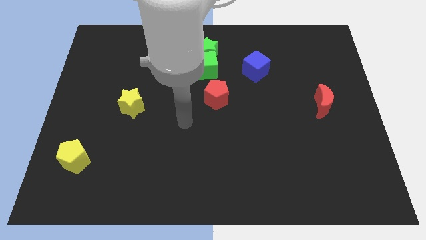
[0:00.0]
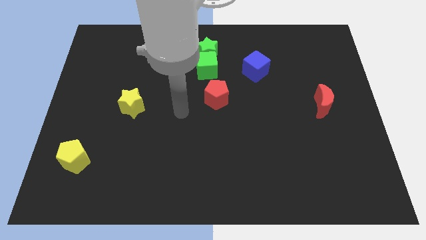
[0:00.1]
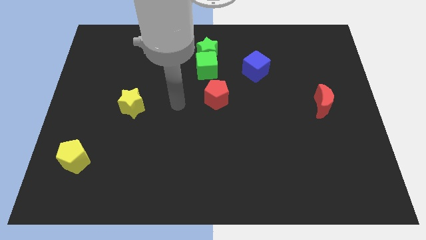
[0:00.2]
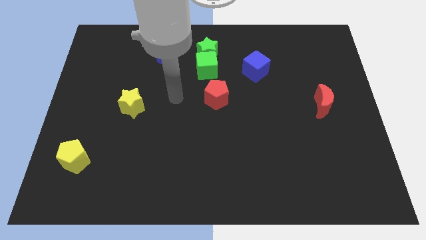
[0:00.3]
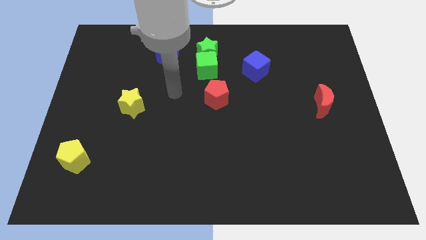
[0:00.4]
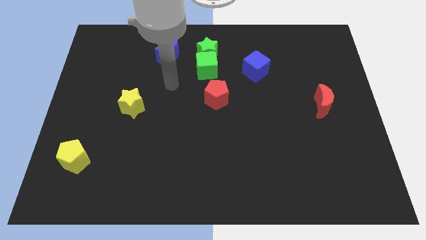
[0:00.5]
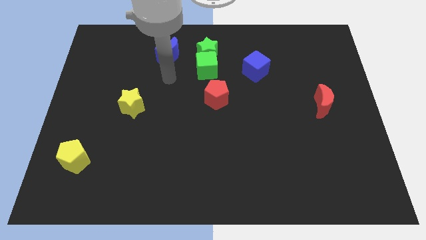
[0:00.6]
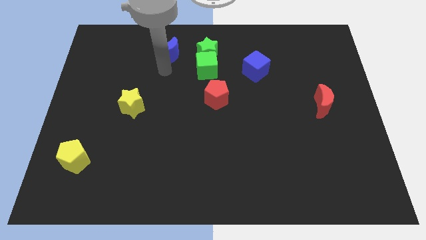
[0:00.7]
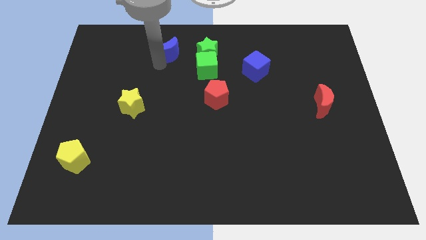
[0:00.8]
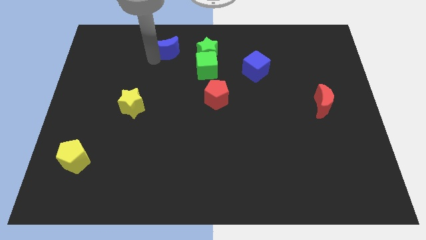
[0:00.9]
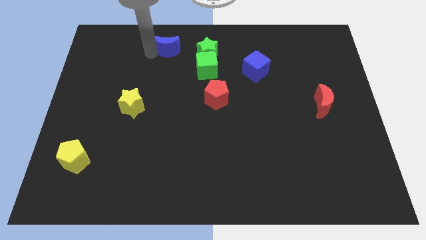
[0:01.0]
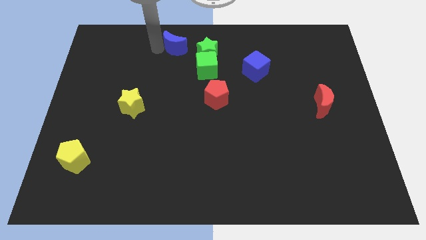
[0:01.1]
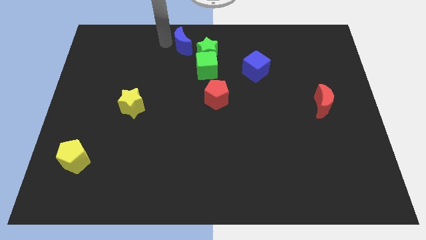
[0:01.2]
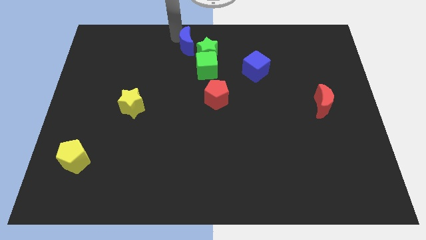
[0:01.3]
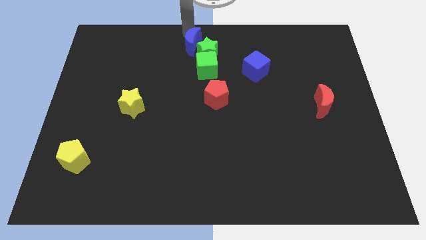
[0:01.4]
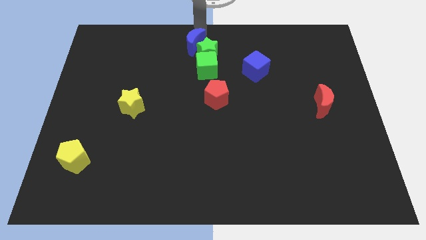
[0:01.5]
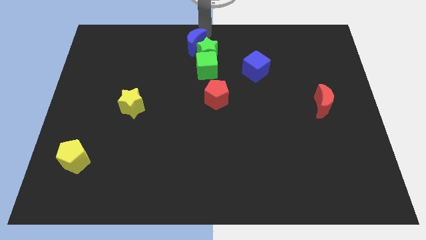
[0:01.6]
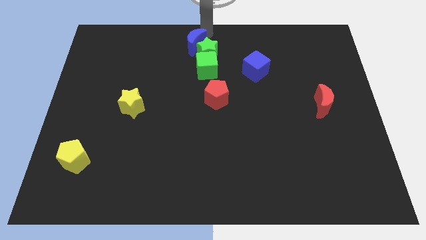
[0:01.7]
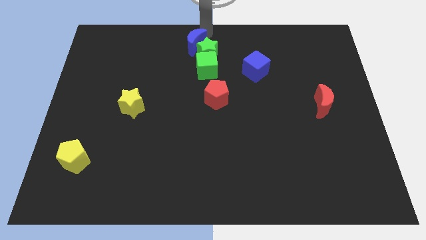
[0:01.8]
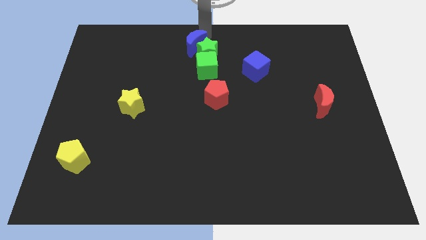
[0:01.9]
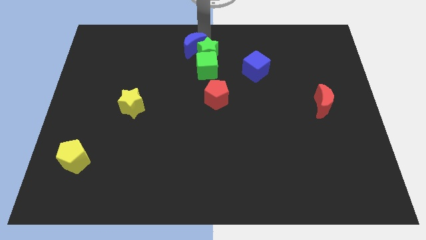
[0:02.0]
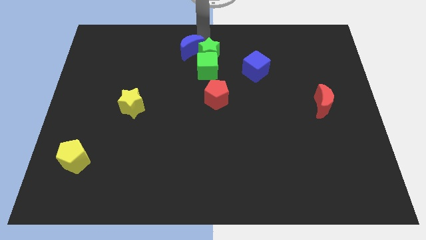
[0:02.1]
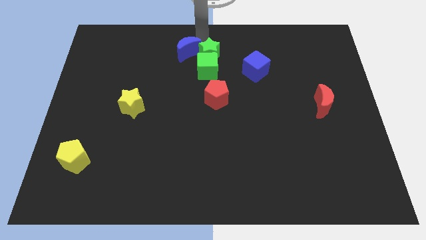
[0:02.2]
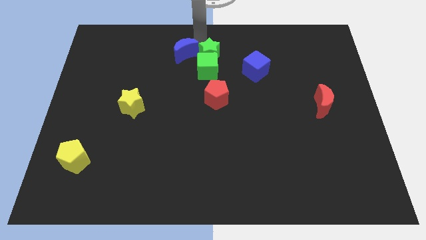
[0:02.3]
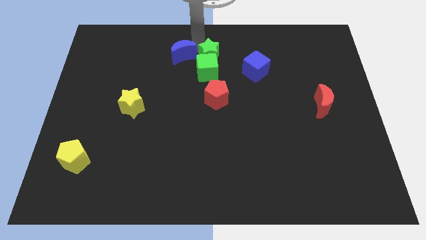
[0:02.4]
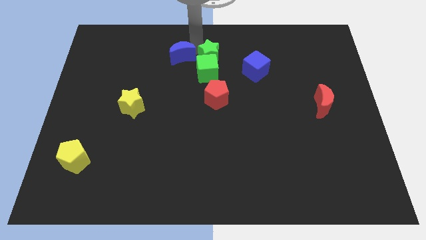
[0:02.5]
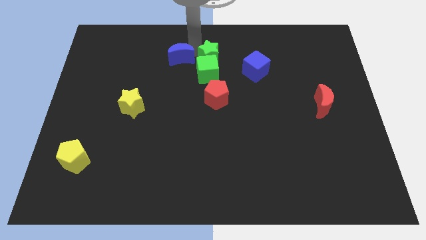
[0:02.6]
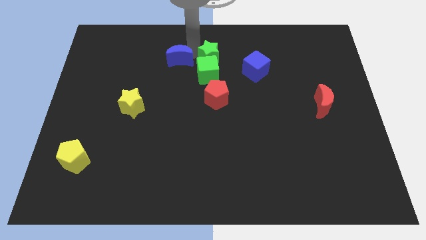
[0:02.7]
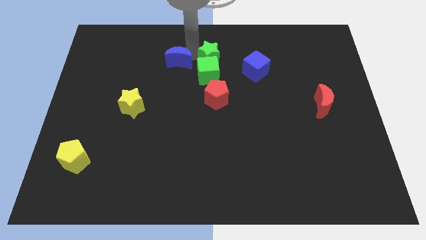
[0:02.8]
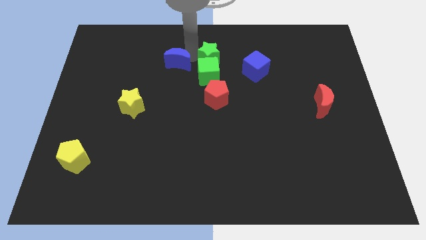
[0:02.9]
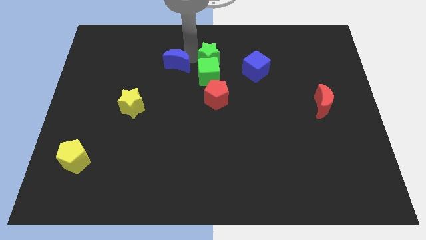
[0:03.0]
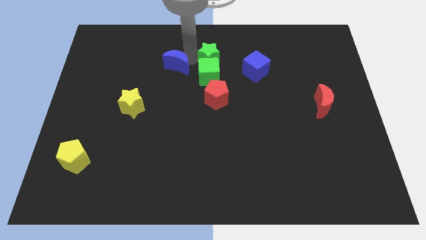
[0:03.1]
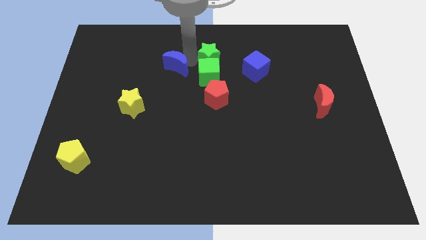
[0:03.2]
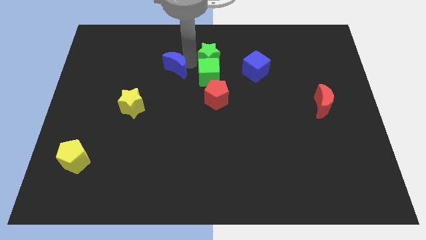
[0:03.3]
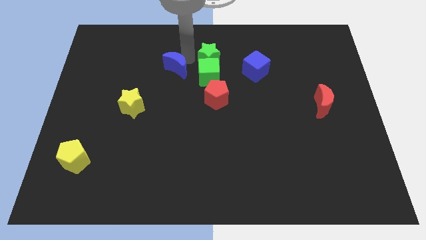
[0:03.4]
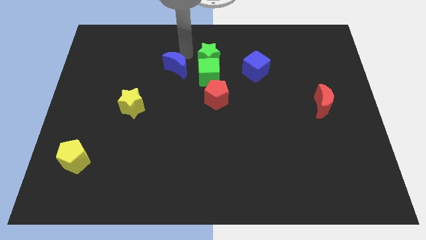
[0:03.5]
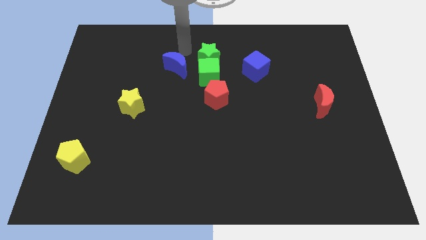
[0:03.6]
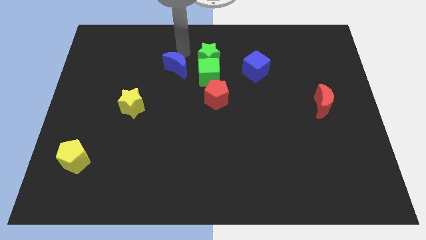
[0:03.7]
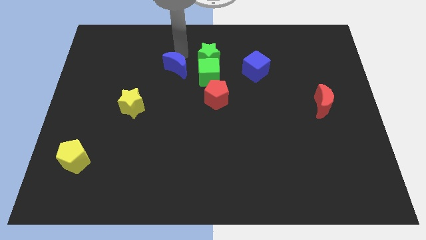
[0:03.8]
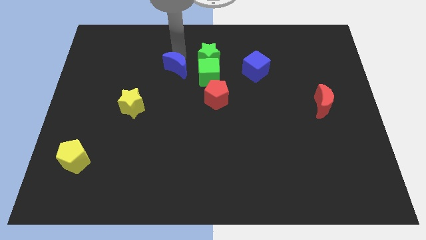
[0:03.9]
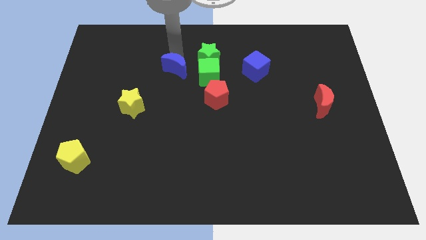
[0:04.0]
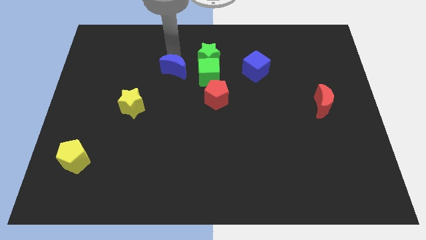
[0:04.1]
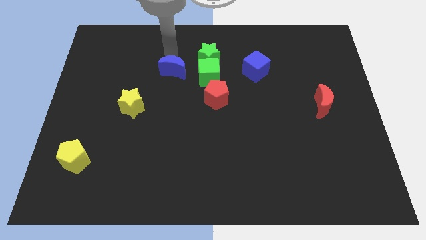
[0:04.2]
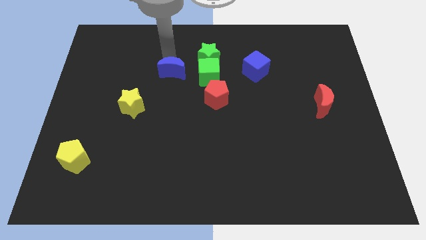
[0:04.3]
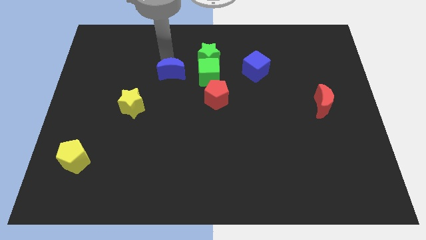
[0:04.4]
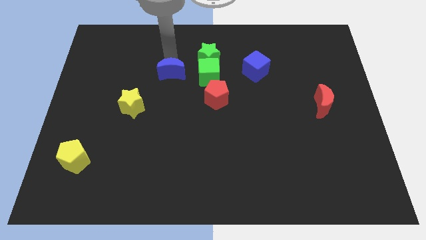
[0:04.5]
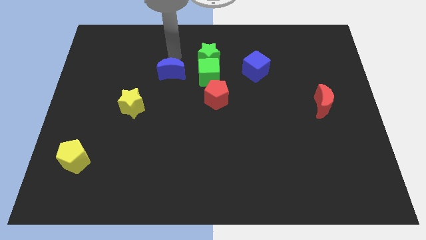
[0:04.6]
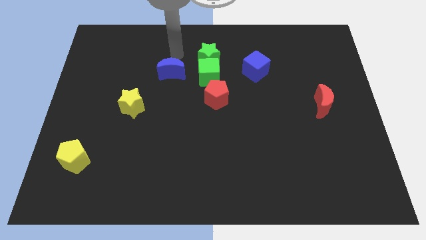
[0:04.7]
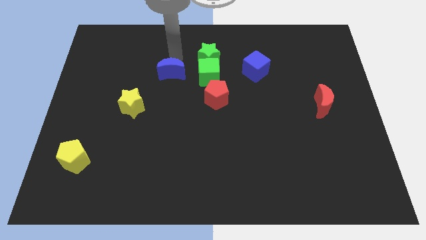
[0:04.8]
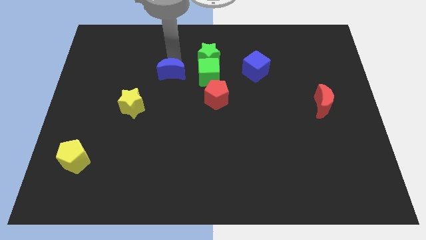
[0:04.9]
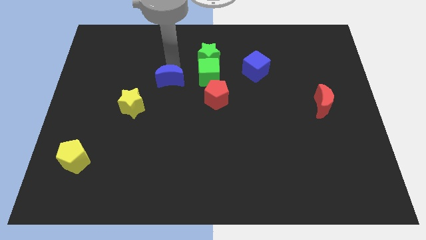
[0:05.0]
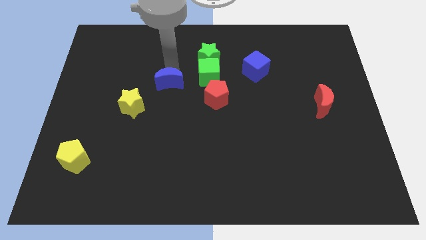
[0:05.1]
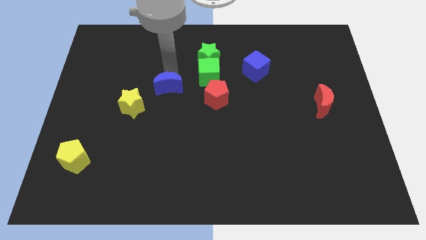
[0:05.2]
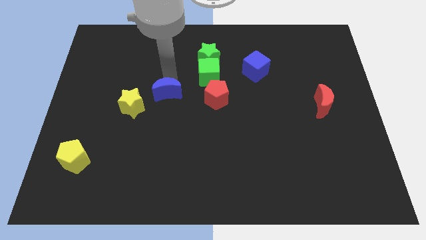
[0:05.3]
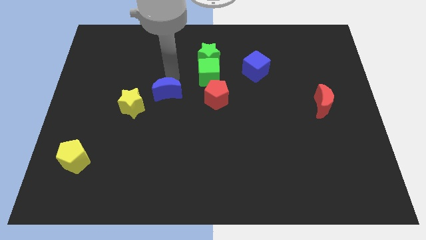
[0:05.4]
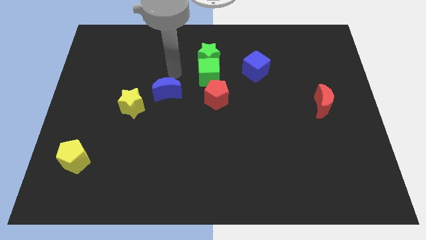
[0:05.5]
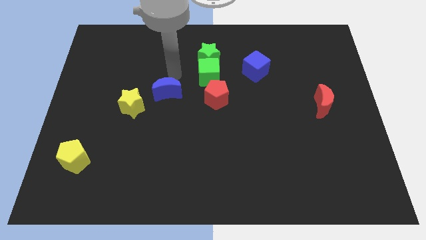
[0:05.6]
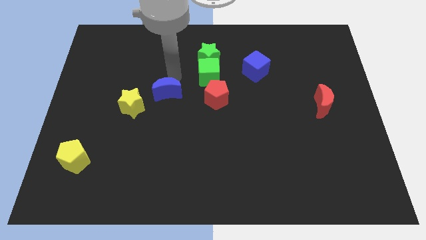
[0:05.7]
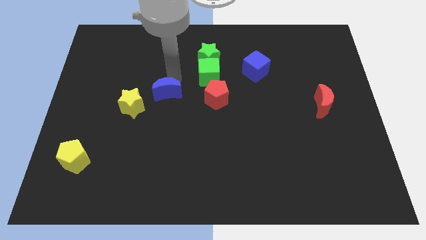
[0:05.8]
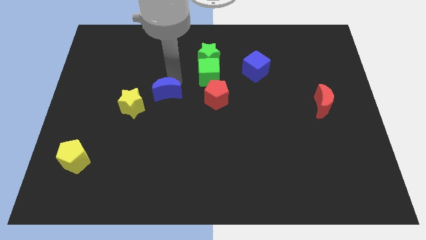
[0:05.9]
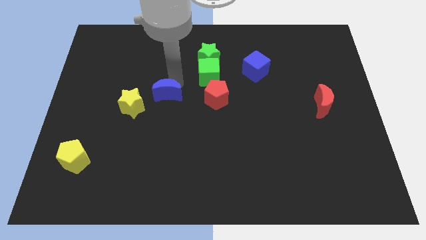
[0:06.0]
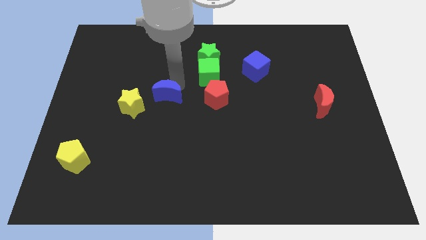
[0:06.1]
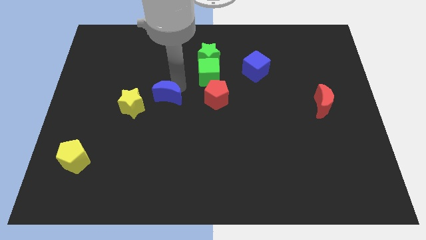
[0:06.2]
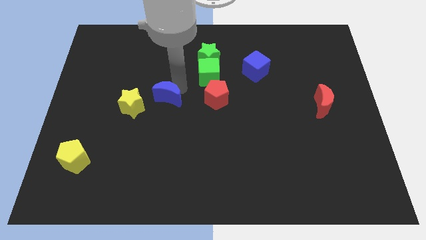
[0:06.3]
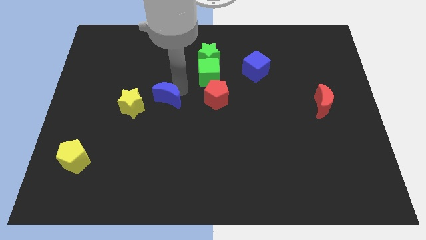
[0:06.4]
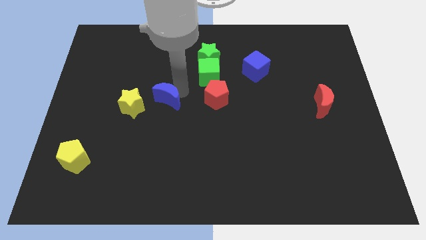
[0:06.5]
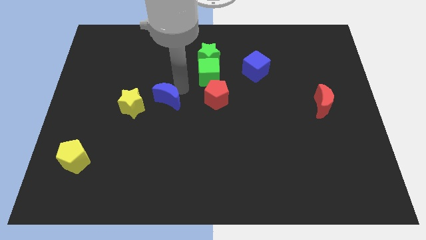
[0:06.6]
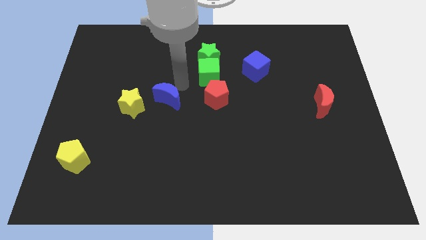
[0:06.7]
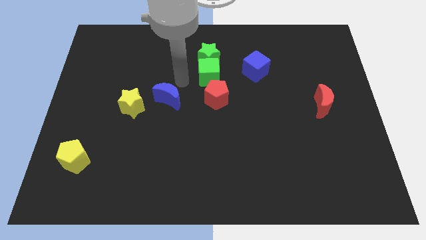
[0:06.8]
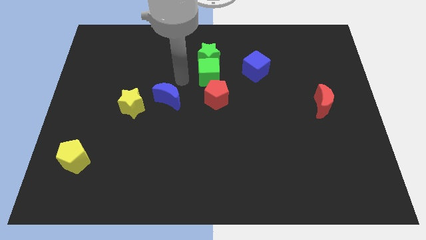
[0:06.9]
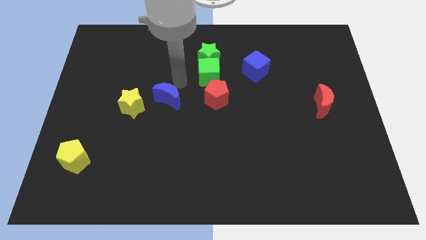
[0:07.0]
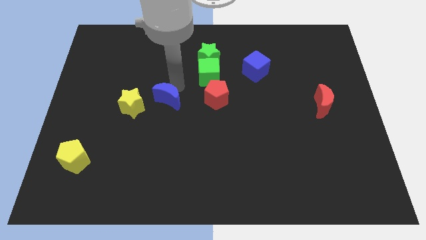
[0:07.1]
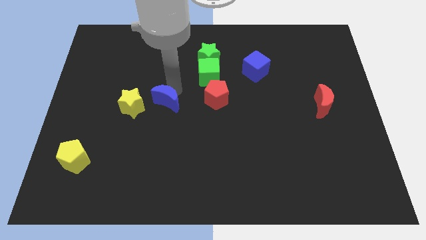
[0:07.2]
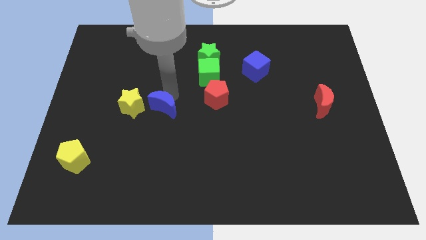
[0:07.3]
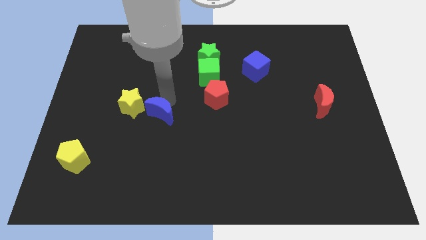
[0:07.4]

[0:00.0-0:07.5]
move the blue moon to the bottom right of the yellow star

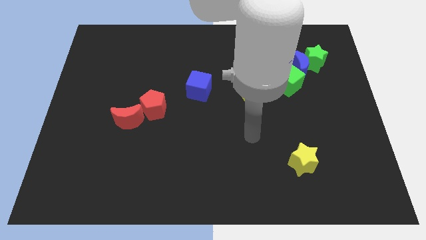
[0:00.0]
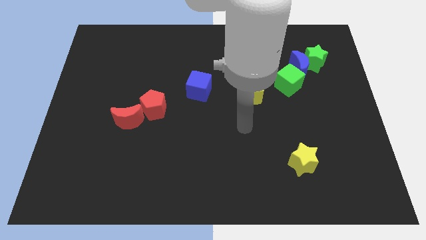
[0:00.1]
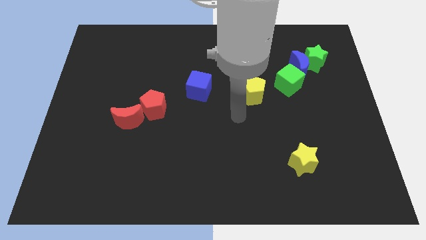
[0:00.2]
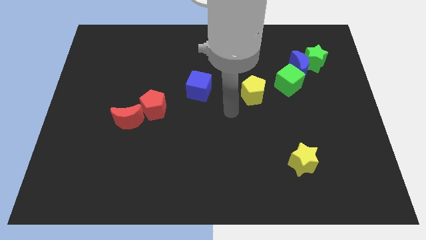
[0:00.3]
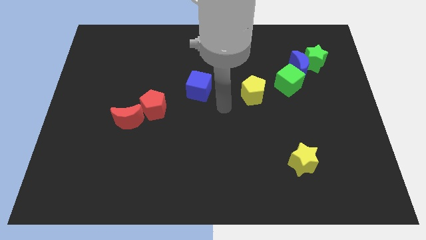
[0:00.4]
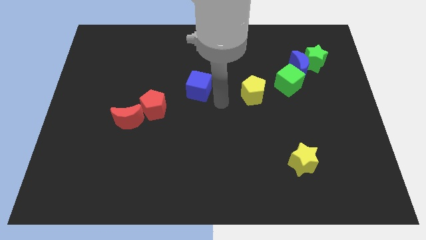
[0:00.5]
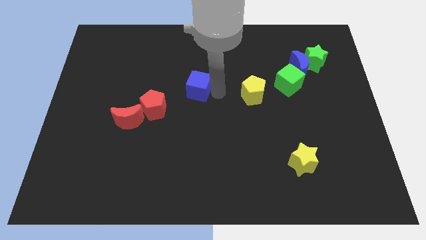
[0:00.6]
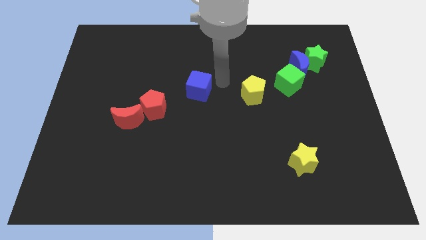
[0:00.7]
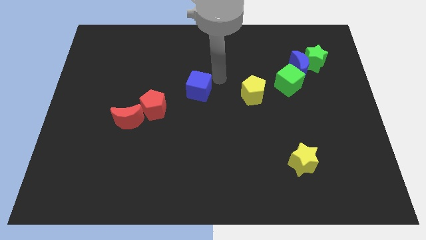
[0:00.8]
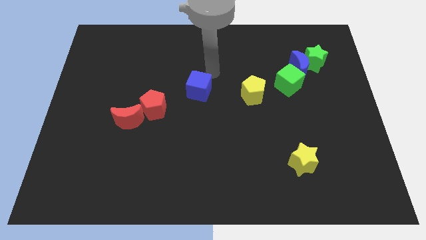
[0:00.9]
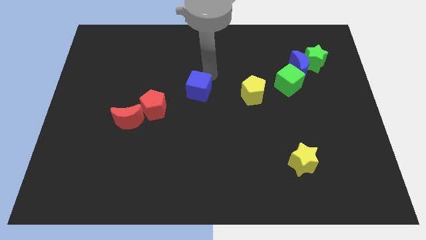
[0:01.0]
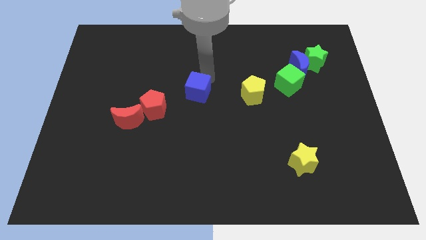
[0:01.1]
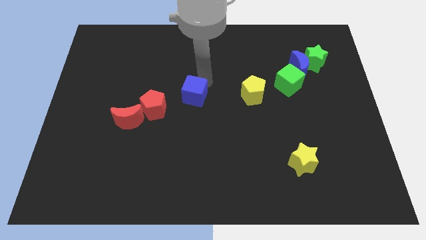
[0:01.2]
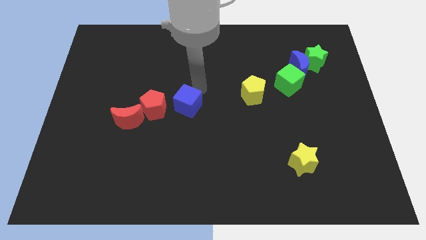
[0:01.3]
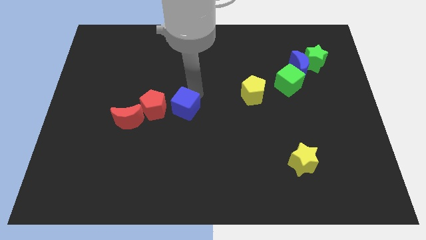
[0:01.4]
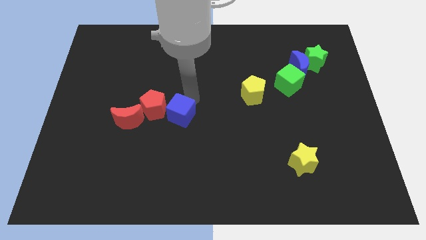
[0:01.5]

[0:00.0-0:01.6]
put the blue cube to the bottom right of the red pentagon
